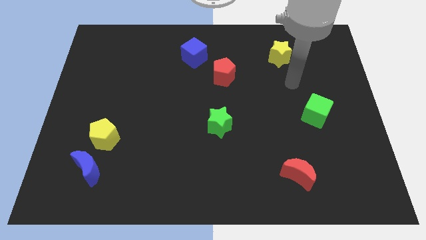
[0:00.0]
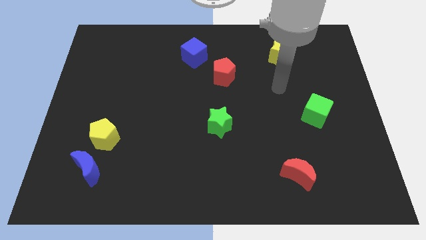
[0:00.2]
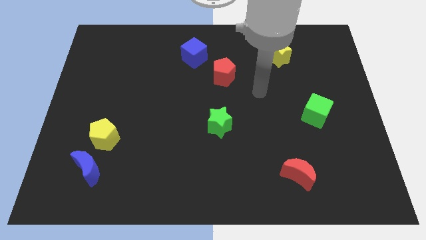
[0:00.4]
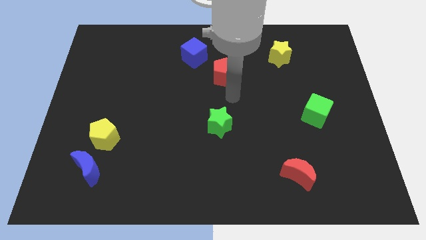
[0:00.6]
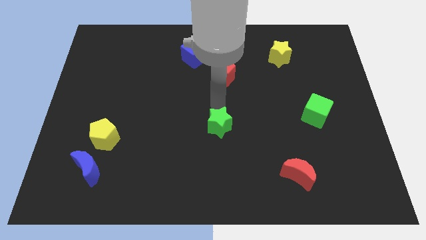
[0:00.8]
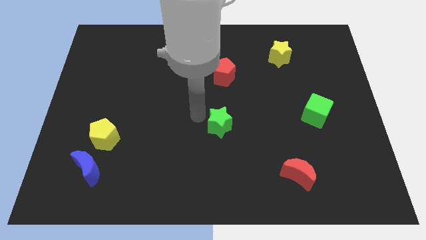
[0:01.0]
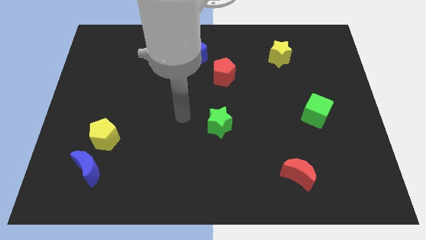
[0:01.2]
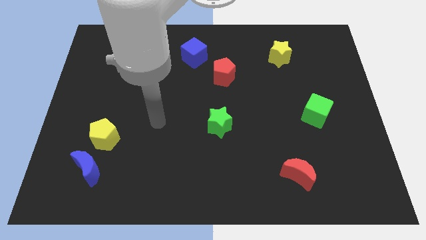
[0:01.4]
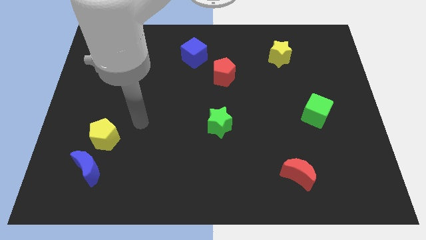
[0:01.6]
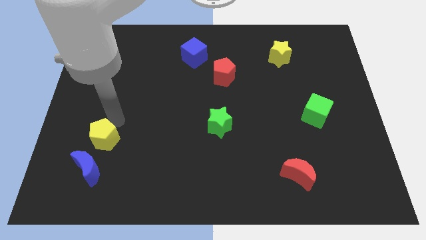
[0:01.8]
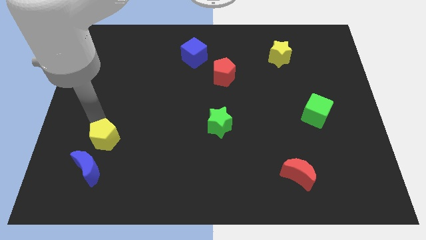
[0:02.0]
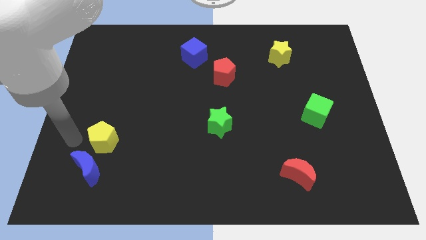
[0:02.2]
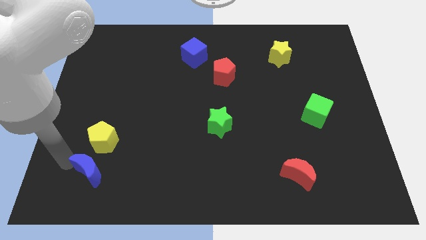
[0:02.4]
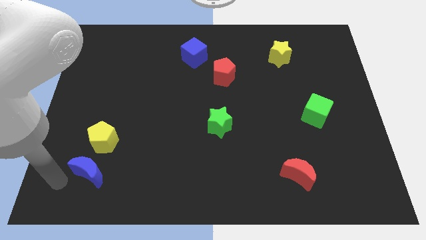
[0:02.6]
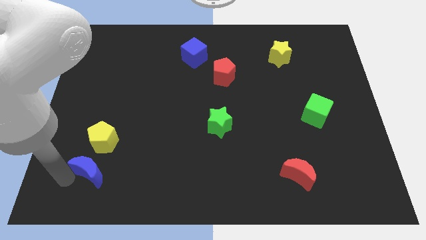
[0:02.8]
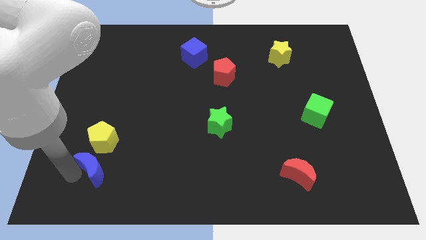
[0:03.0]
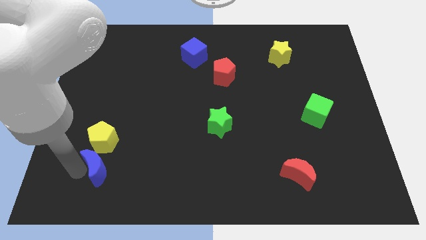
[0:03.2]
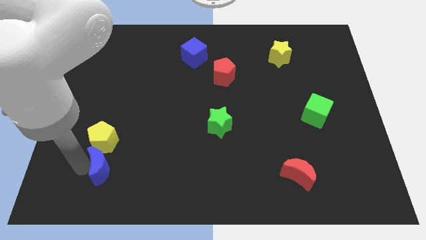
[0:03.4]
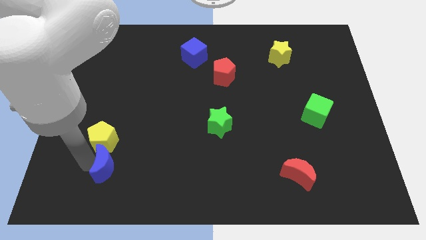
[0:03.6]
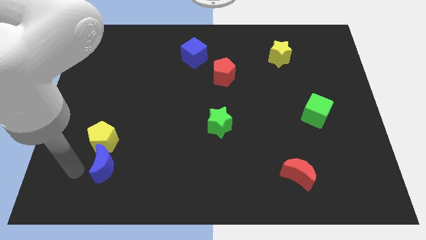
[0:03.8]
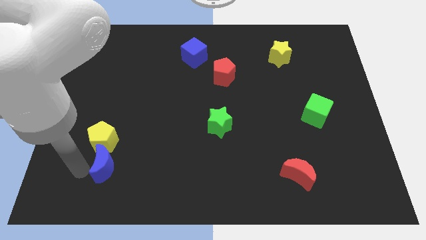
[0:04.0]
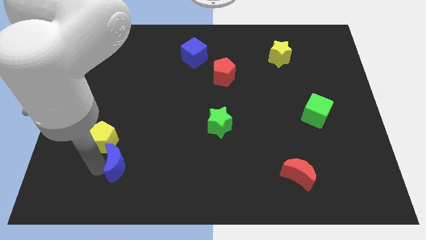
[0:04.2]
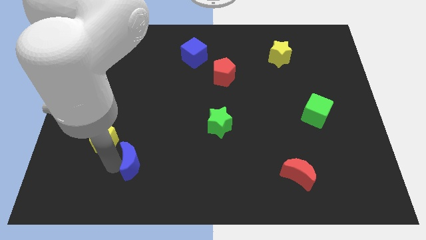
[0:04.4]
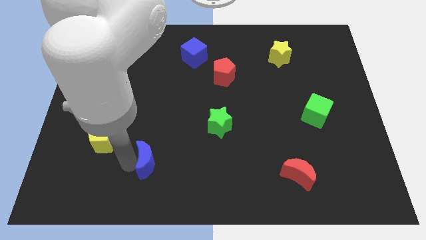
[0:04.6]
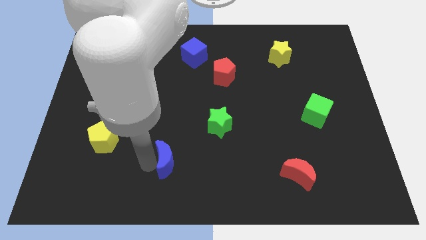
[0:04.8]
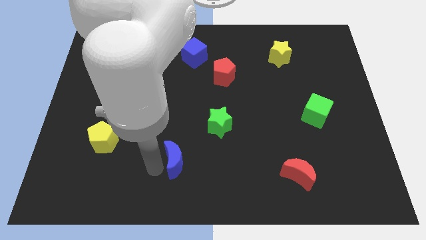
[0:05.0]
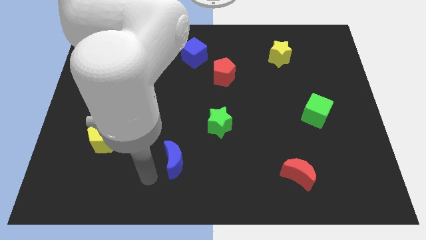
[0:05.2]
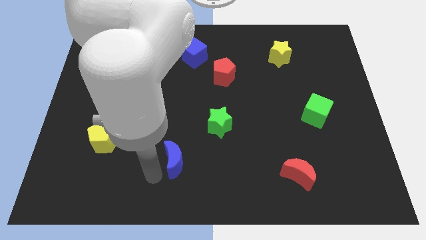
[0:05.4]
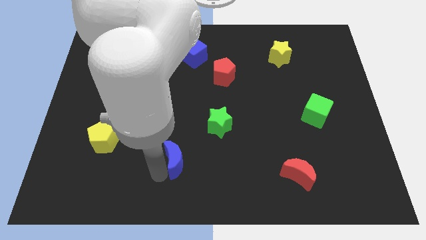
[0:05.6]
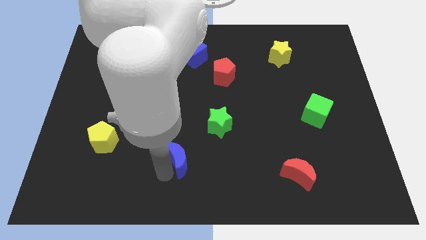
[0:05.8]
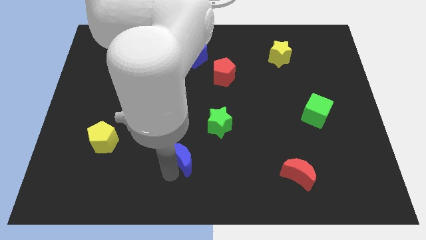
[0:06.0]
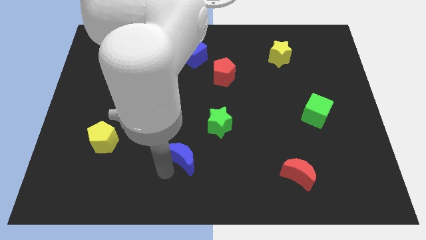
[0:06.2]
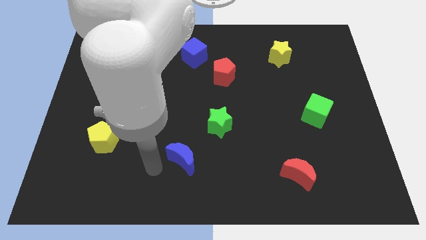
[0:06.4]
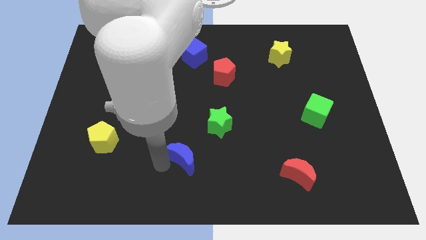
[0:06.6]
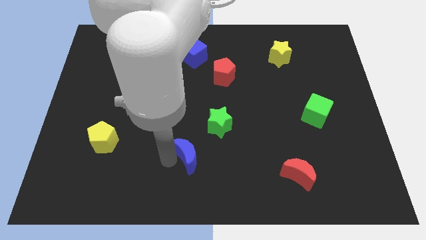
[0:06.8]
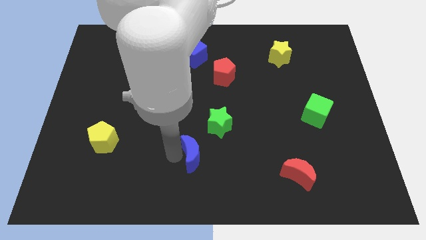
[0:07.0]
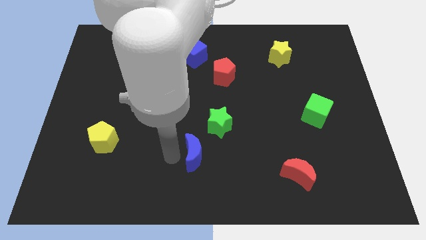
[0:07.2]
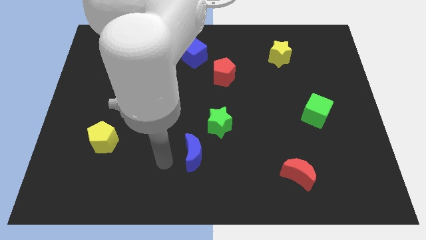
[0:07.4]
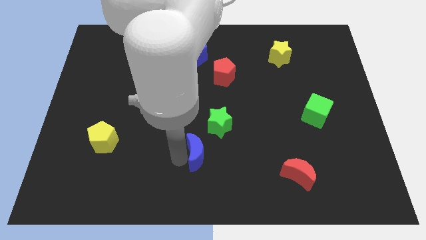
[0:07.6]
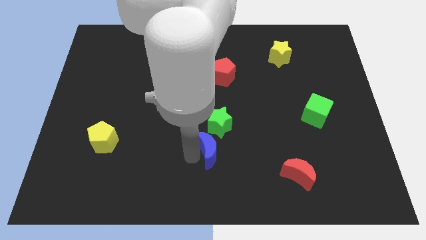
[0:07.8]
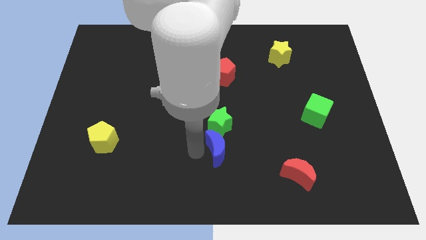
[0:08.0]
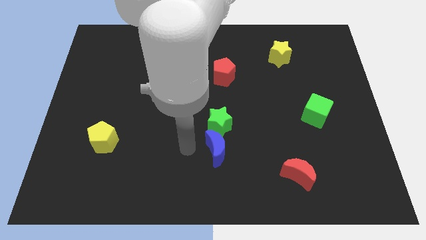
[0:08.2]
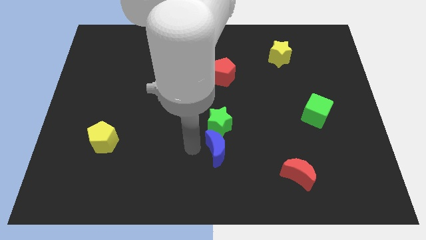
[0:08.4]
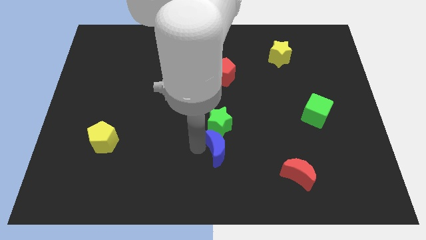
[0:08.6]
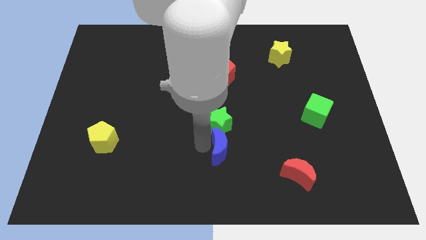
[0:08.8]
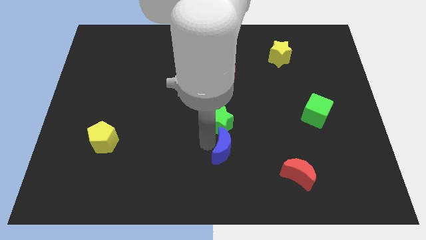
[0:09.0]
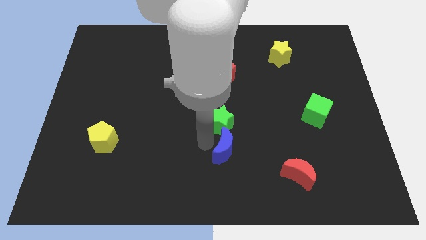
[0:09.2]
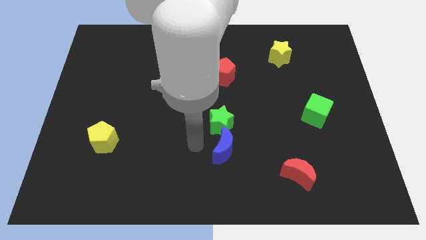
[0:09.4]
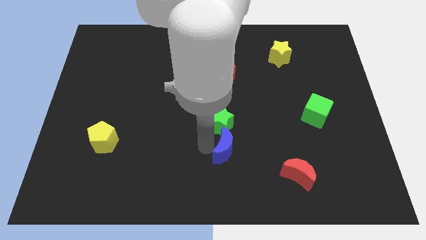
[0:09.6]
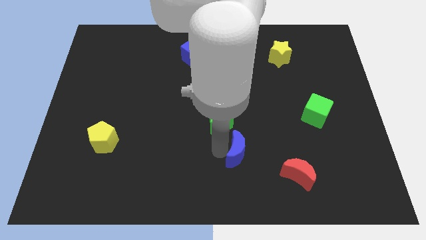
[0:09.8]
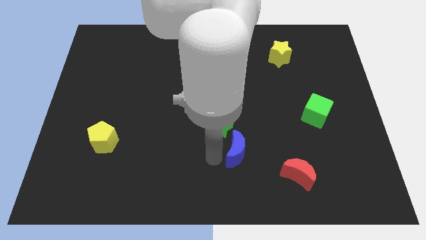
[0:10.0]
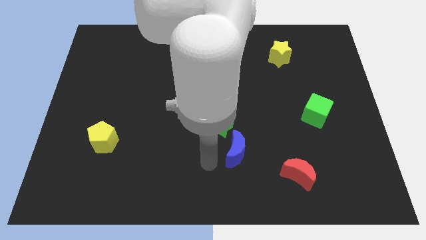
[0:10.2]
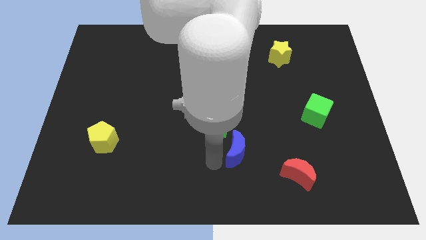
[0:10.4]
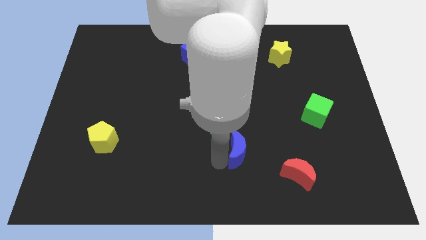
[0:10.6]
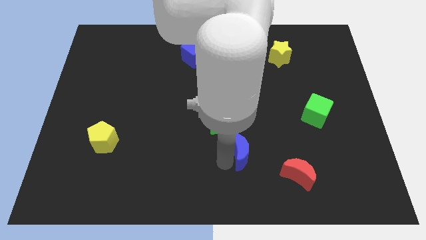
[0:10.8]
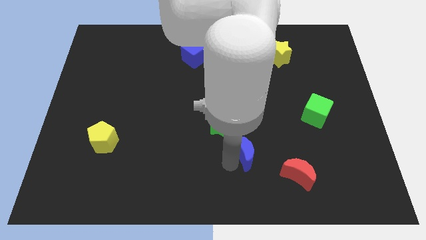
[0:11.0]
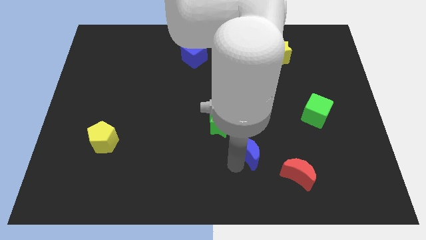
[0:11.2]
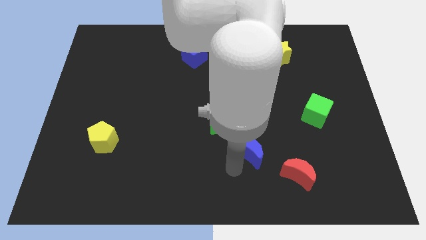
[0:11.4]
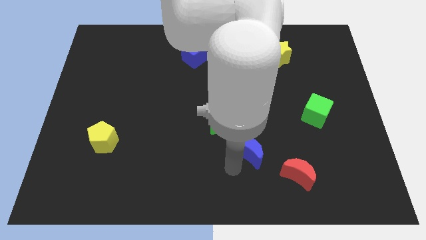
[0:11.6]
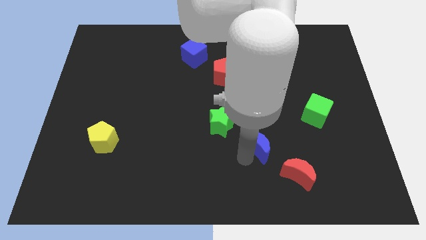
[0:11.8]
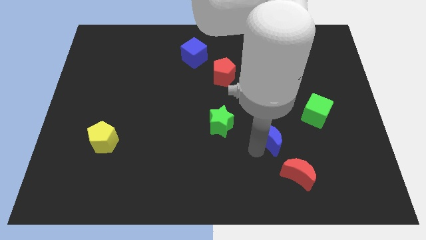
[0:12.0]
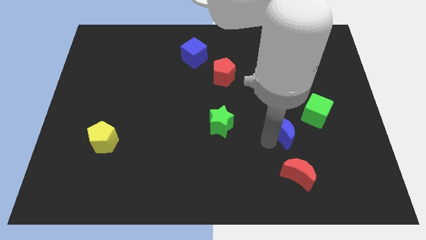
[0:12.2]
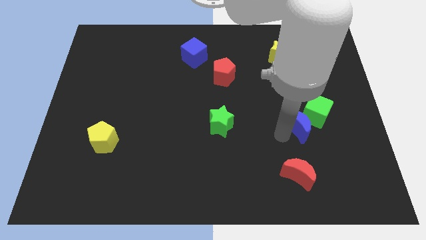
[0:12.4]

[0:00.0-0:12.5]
move the blue moon next to the green cube

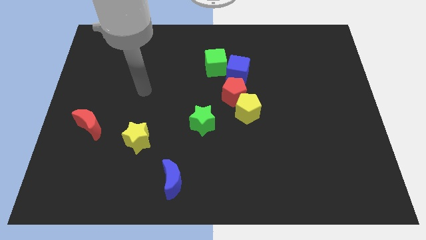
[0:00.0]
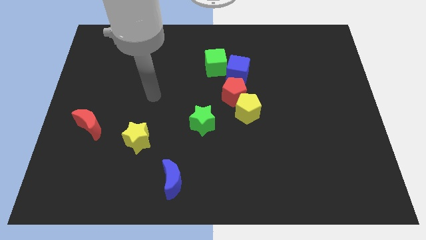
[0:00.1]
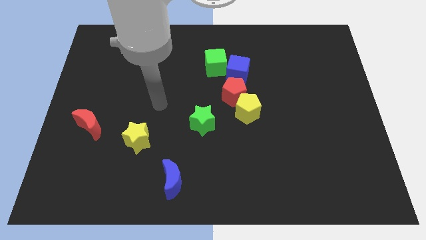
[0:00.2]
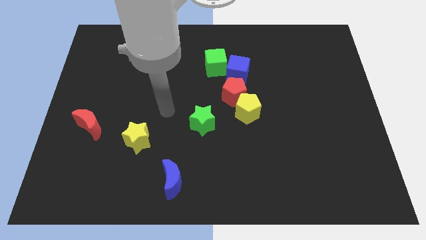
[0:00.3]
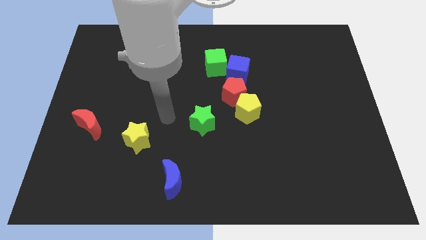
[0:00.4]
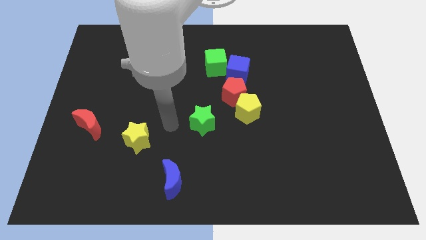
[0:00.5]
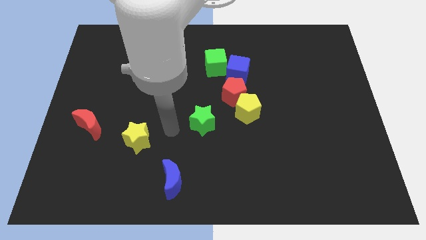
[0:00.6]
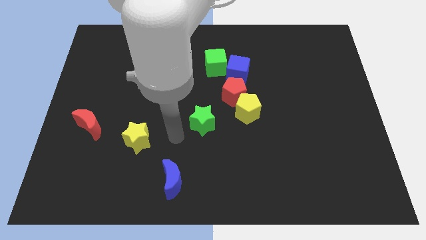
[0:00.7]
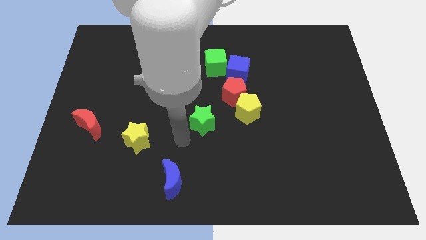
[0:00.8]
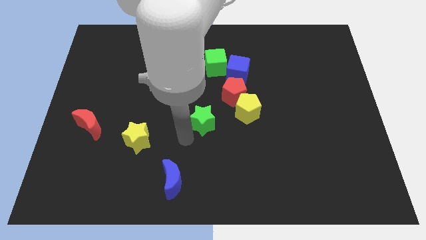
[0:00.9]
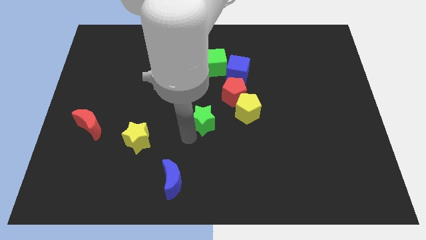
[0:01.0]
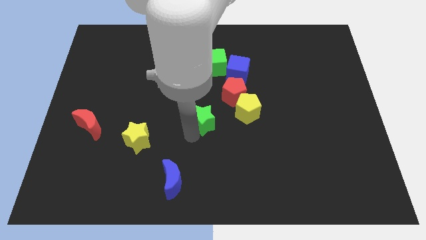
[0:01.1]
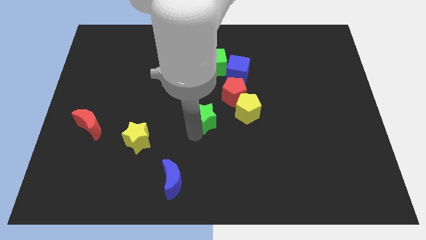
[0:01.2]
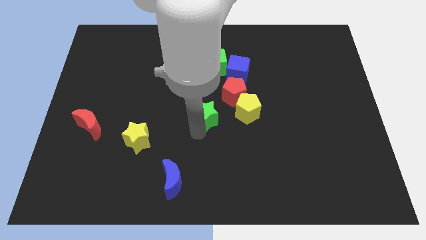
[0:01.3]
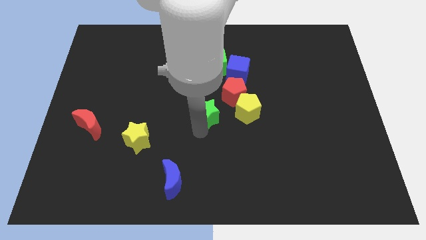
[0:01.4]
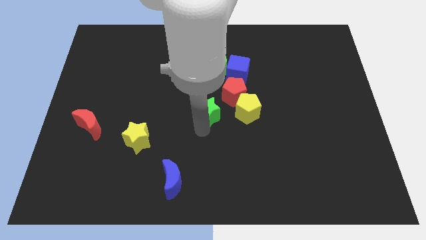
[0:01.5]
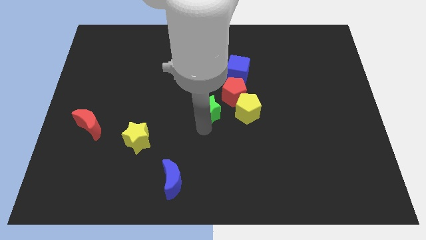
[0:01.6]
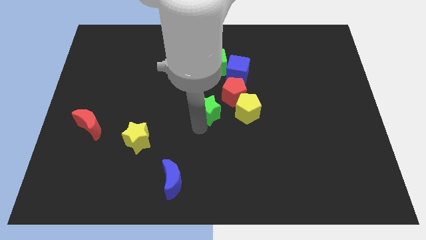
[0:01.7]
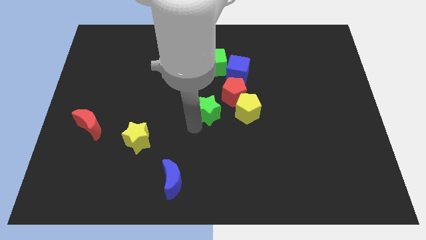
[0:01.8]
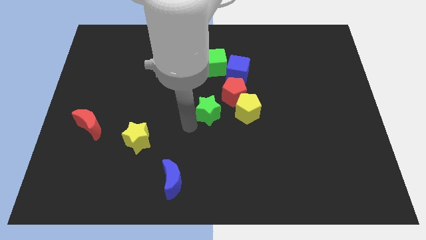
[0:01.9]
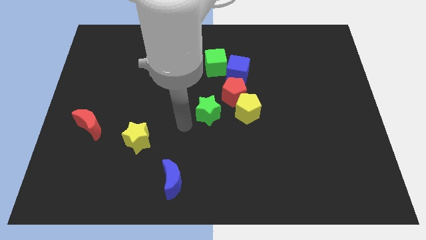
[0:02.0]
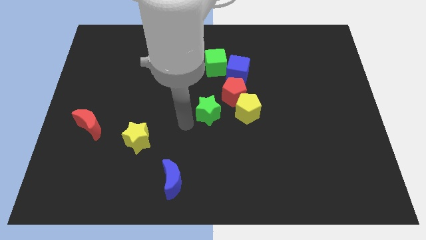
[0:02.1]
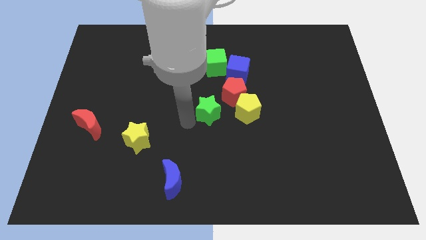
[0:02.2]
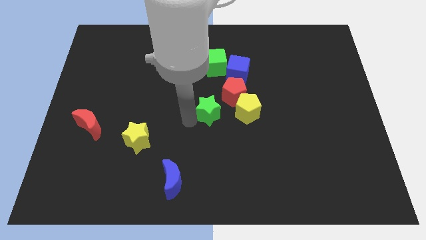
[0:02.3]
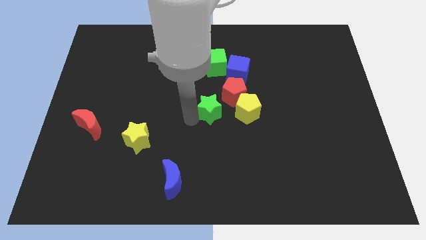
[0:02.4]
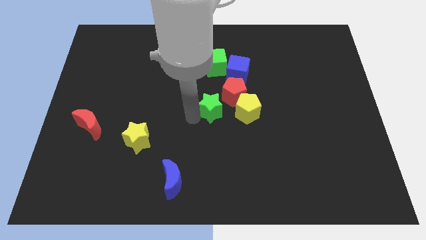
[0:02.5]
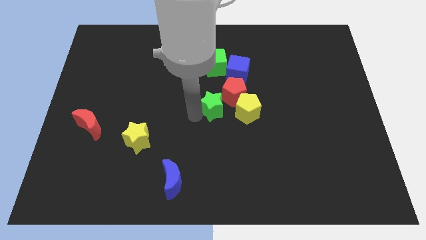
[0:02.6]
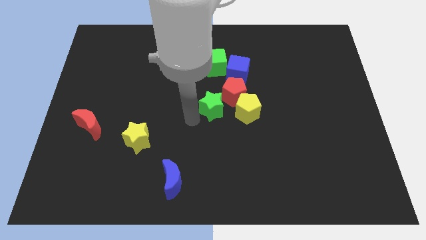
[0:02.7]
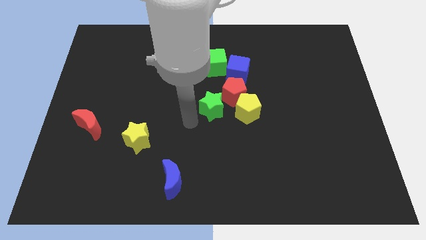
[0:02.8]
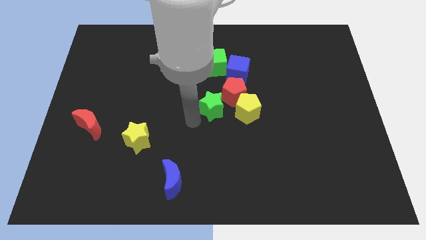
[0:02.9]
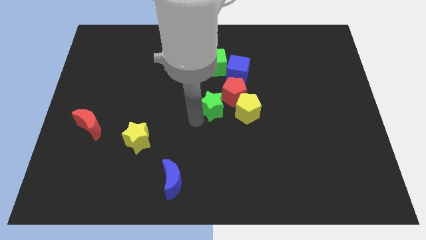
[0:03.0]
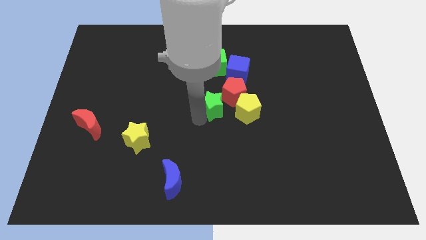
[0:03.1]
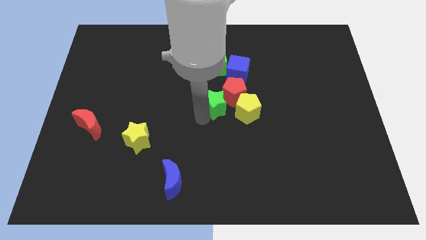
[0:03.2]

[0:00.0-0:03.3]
slide the green star to the red pentagon
